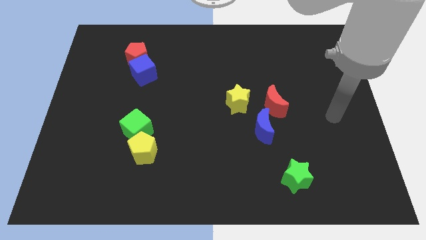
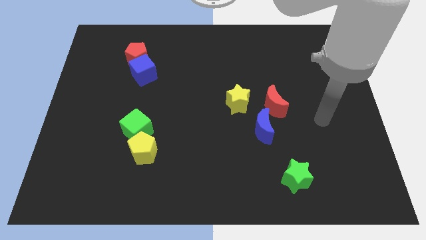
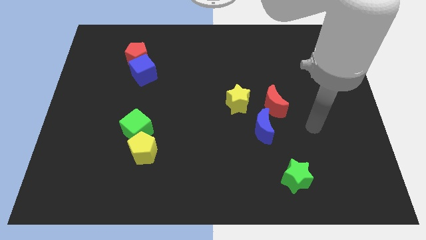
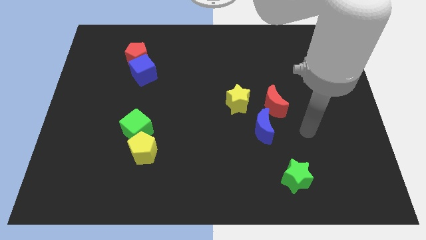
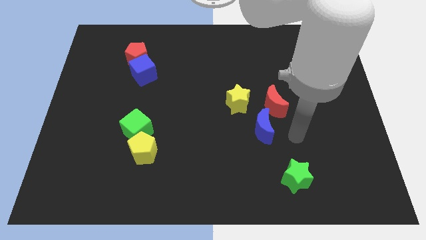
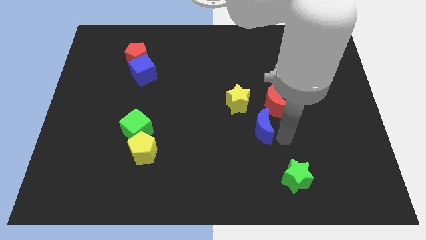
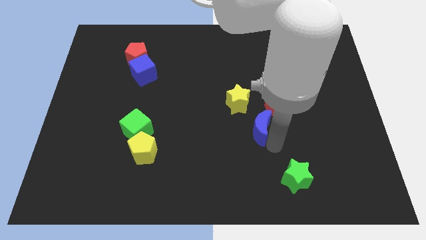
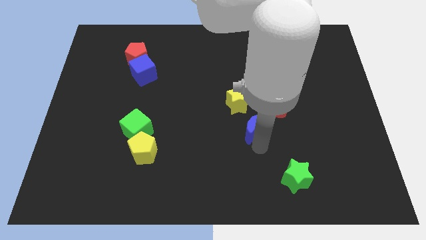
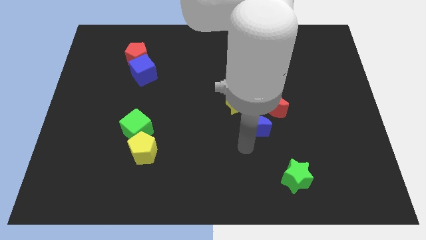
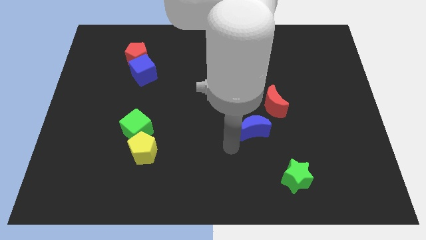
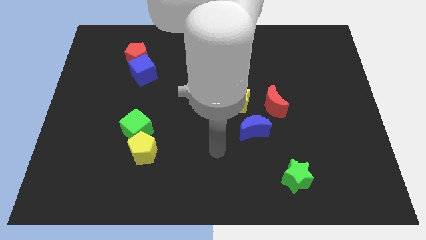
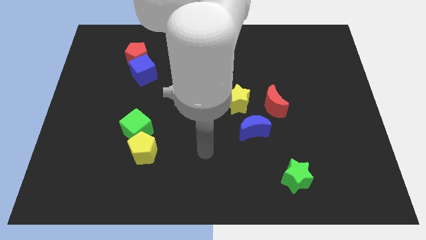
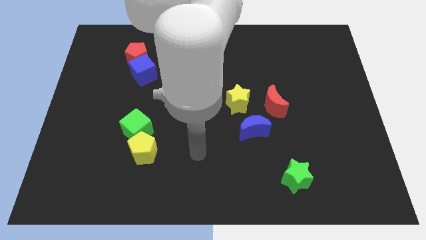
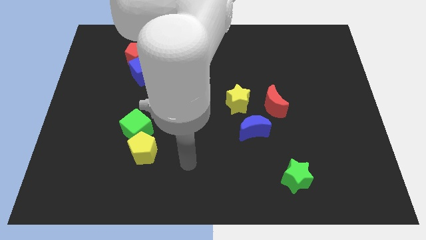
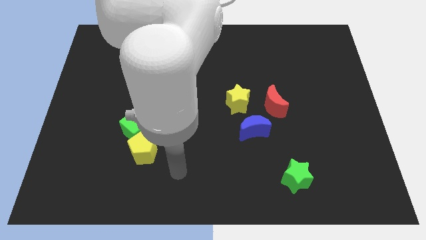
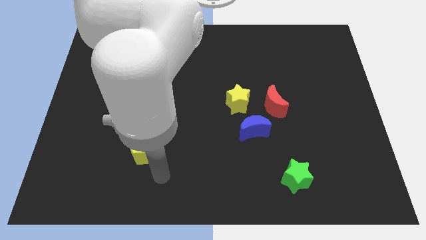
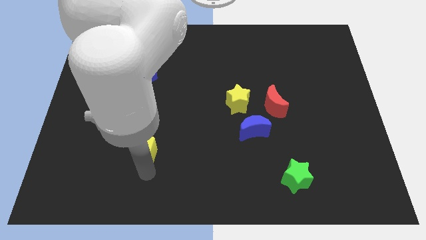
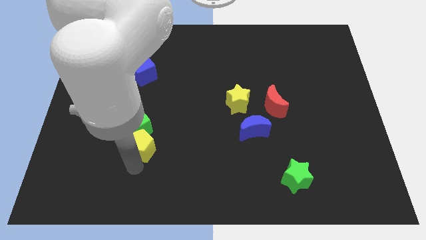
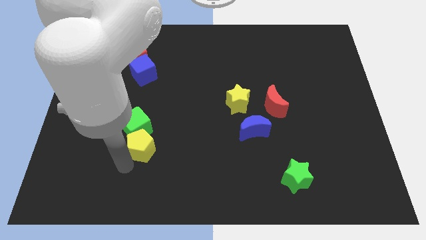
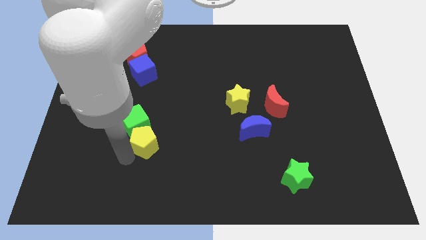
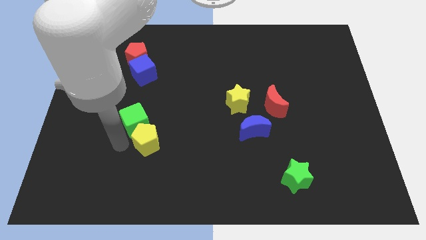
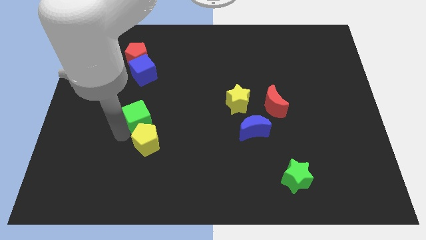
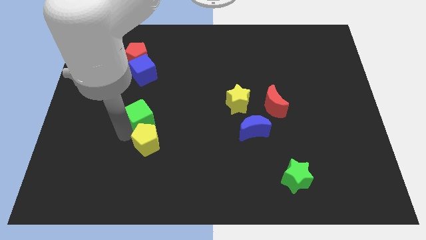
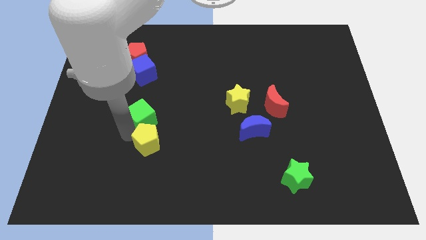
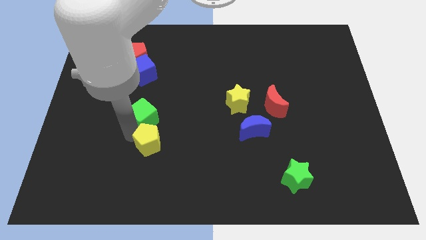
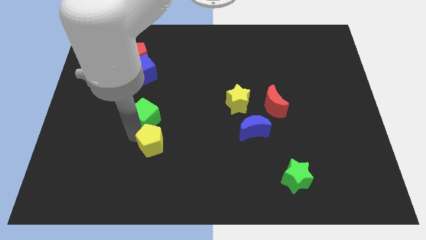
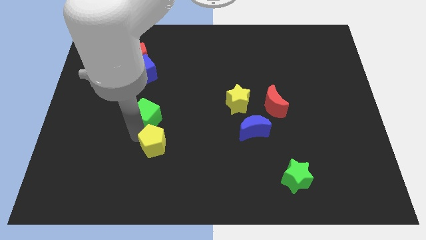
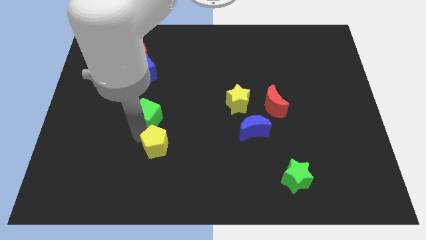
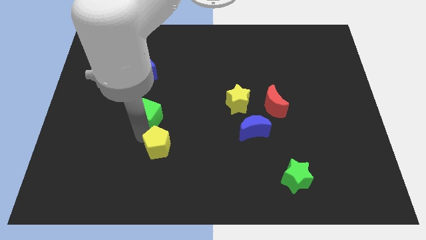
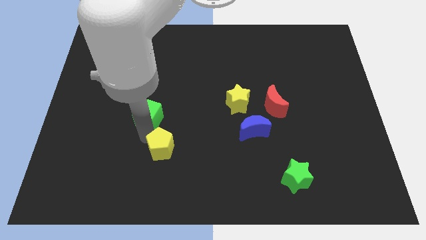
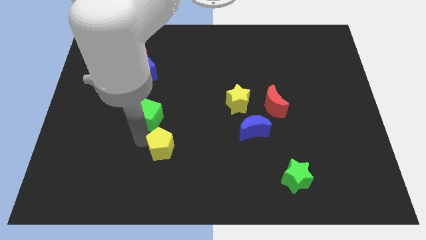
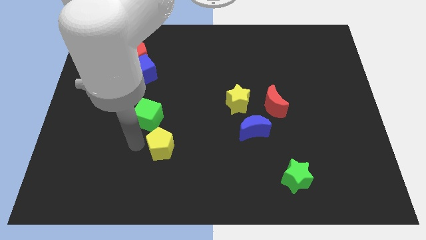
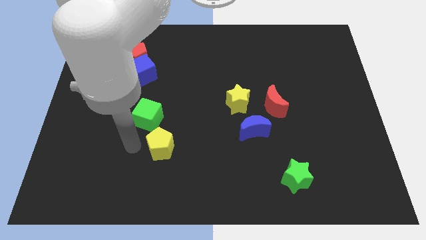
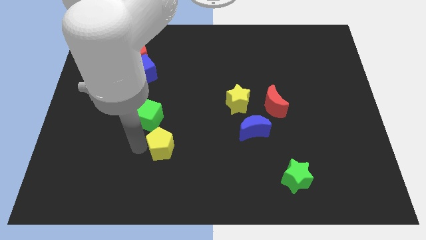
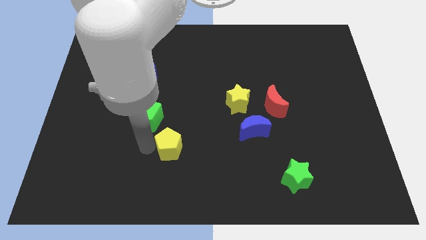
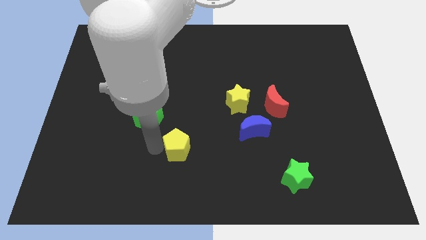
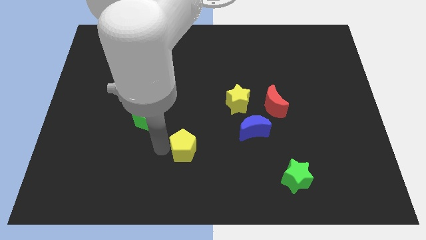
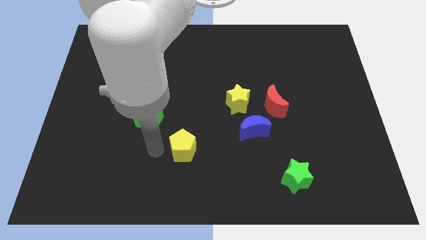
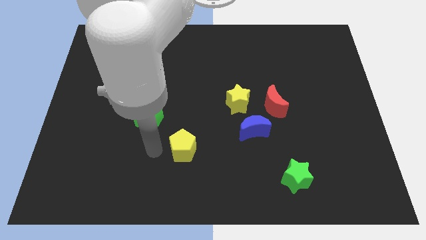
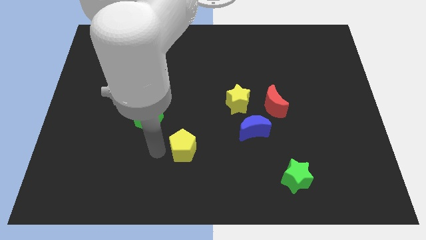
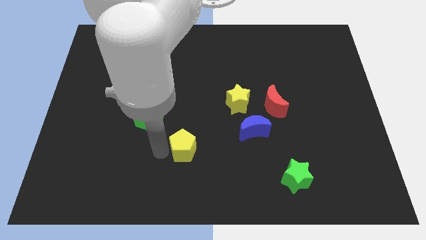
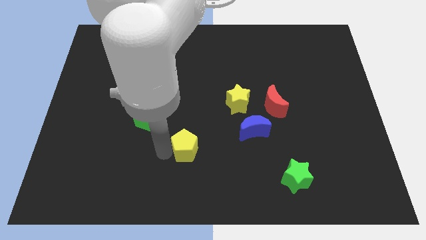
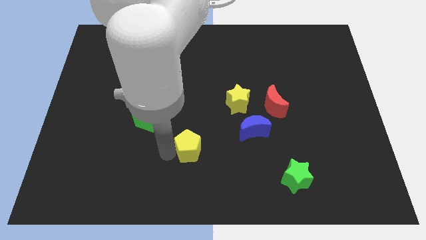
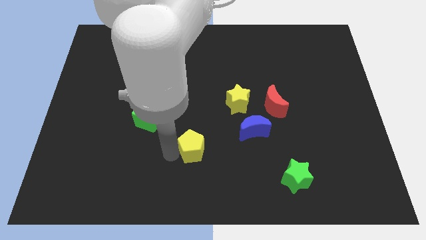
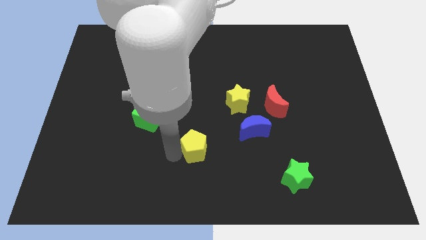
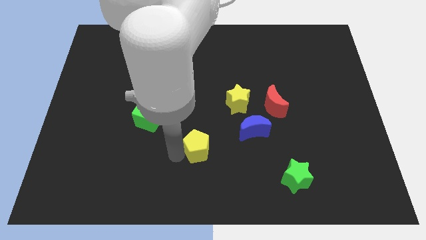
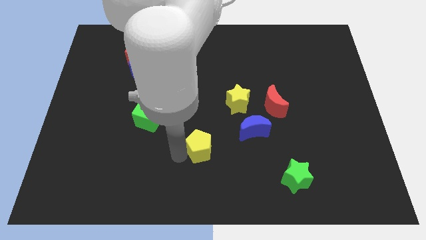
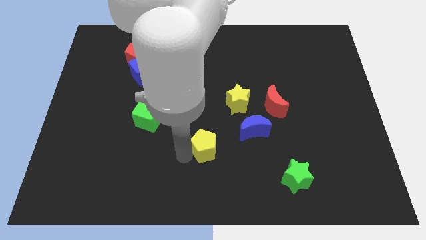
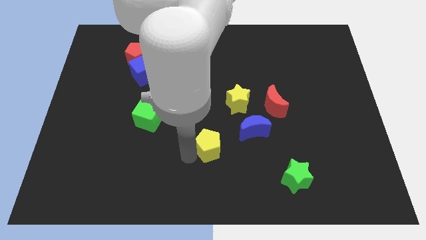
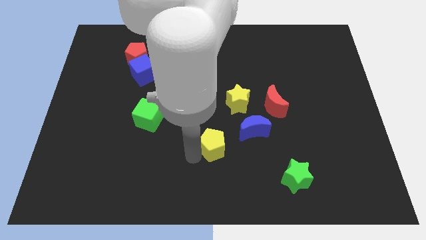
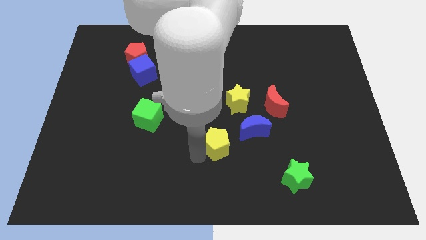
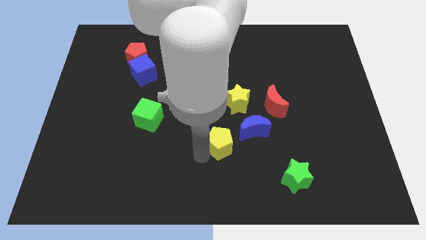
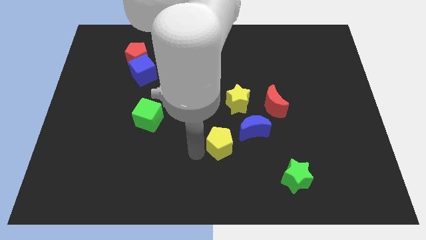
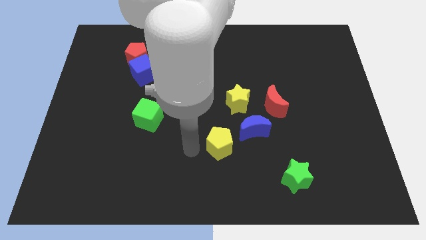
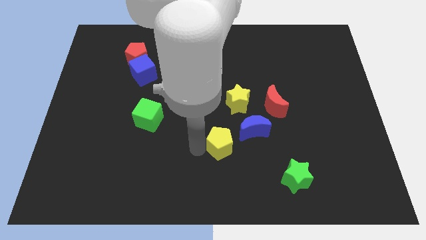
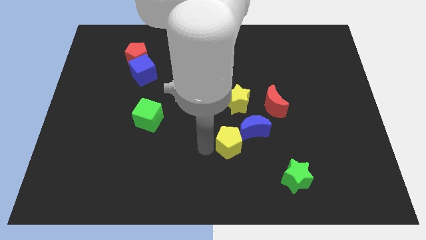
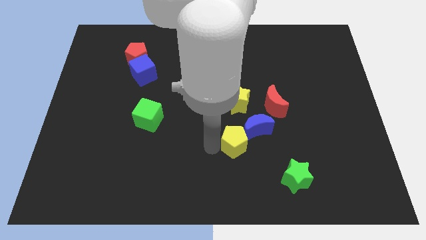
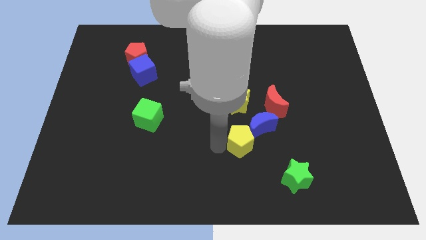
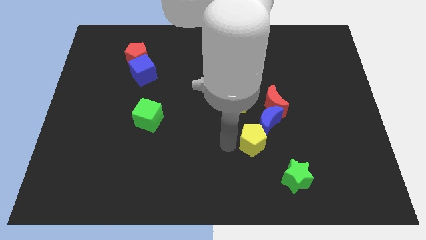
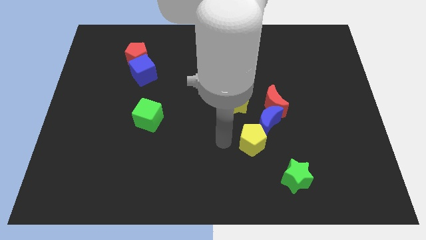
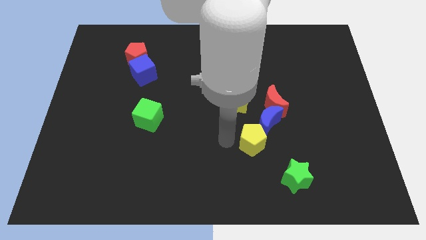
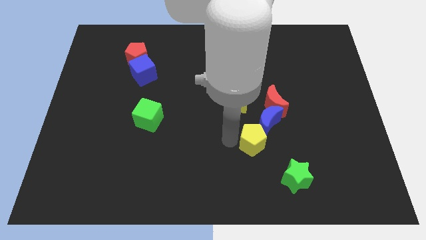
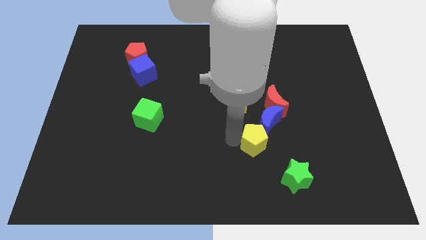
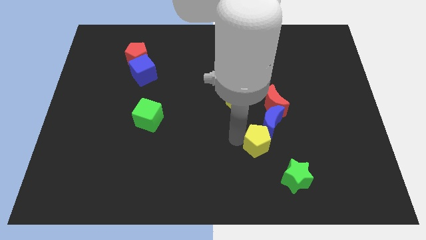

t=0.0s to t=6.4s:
push the yellow pentagon to the bottom of the red moon

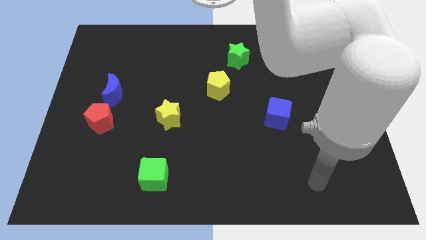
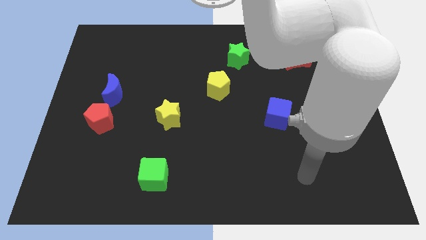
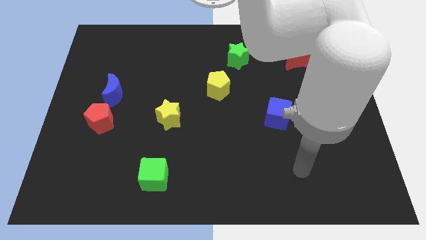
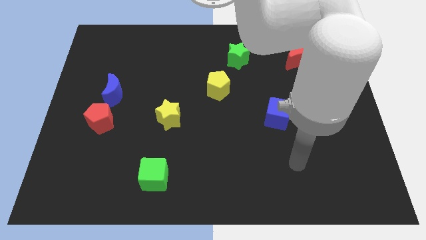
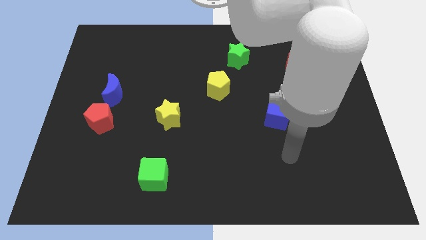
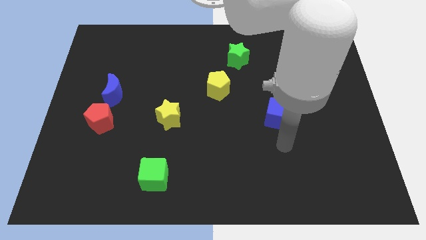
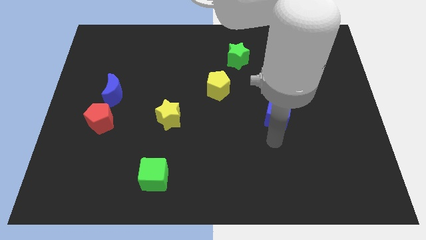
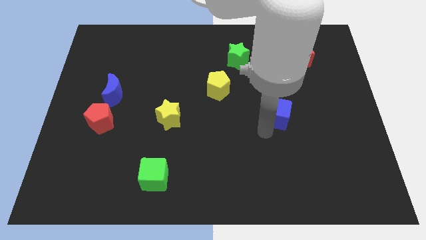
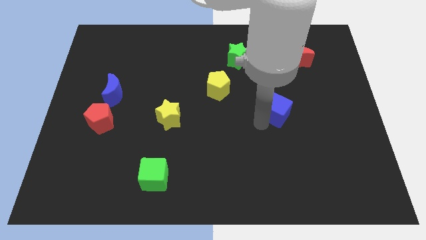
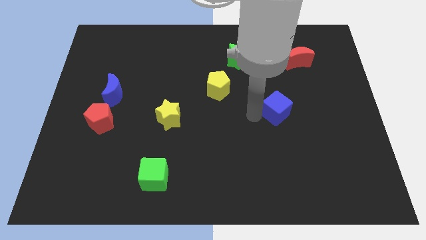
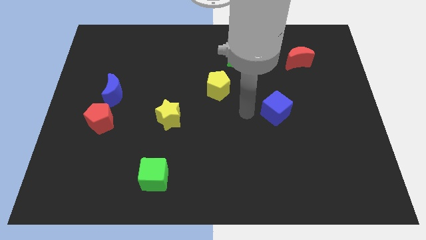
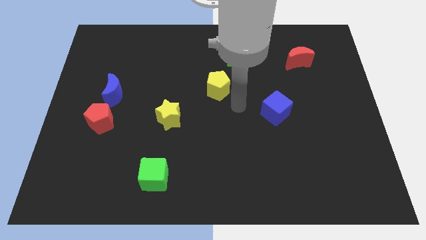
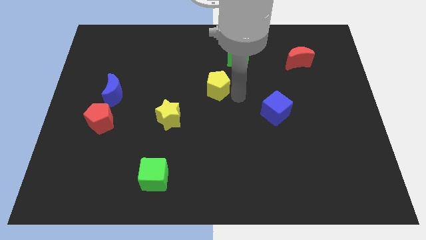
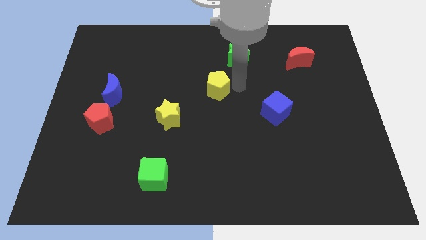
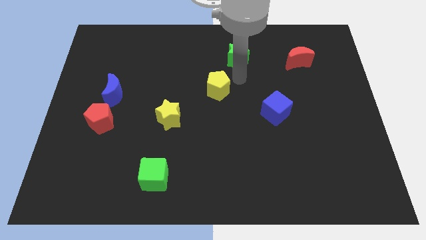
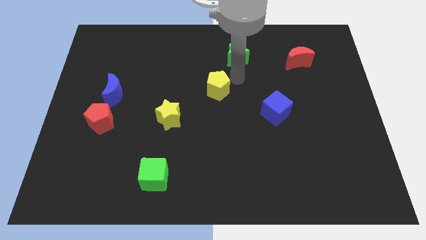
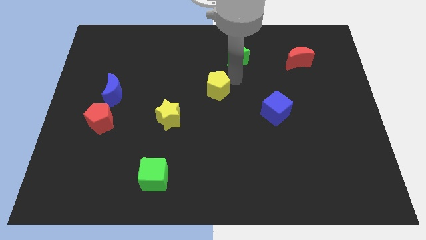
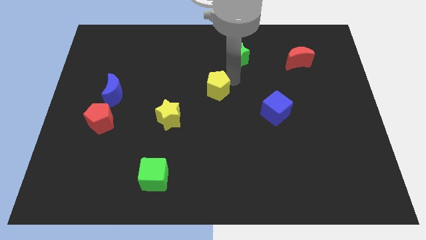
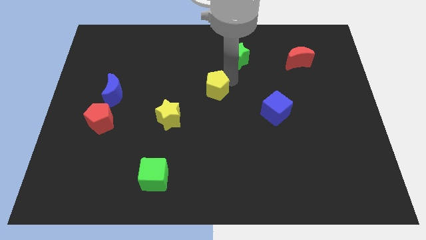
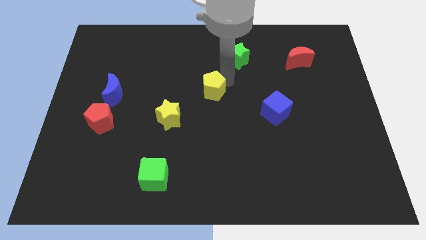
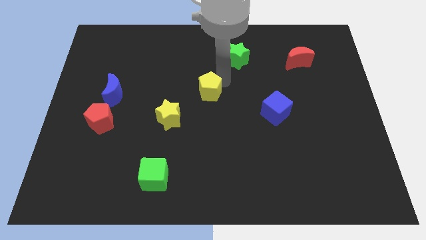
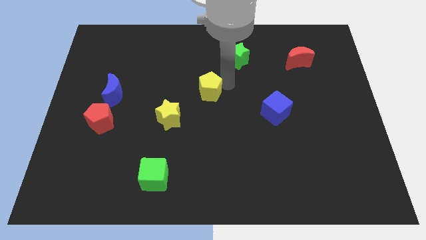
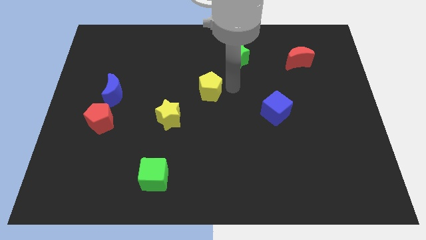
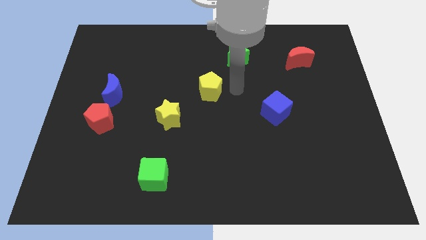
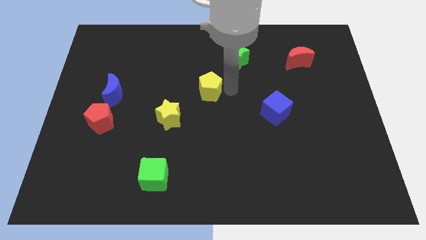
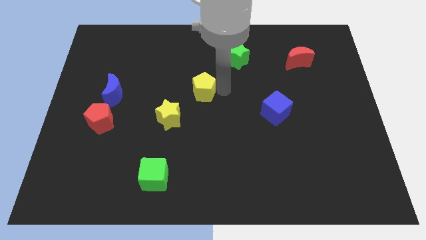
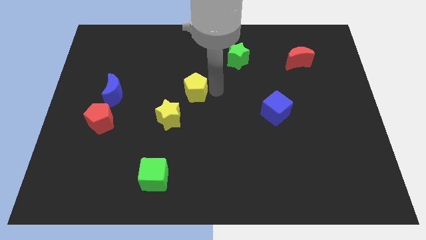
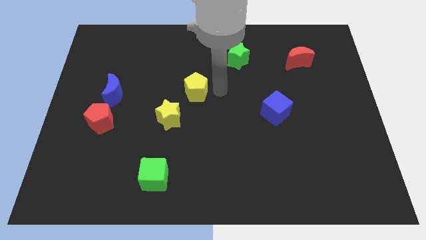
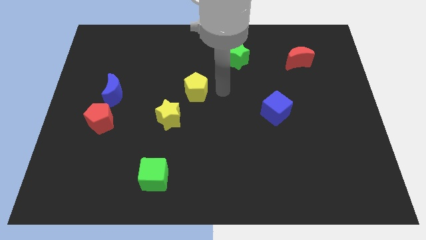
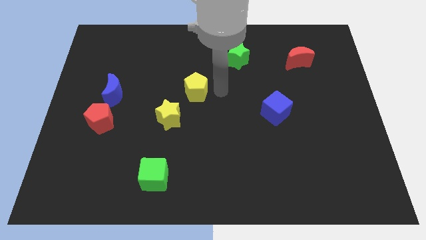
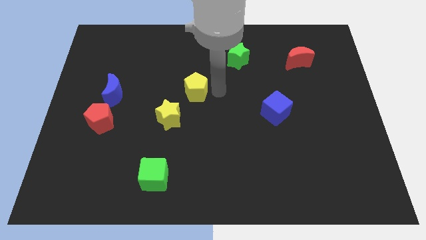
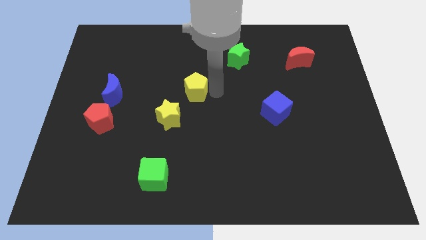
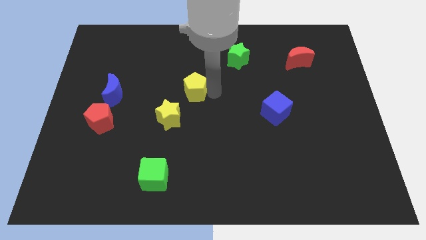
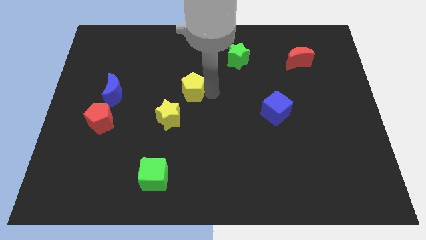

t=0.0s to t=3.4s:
move the yellow pentagon to the top of the yellow star
